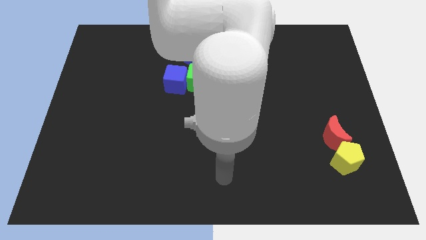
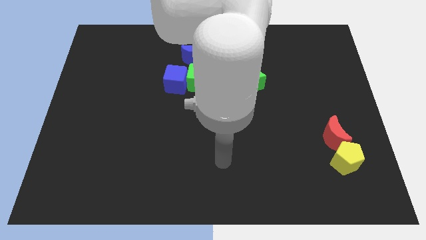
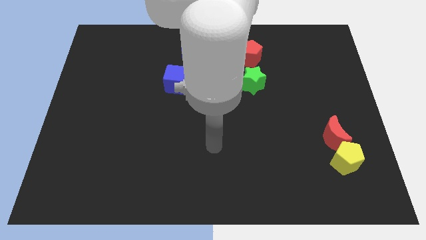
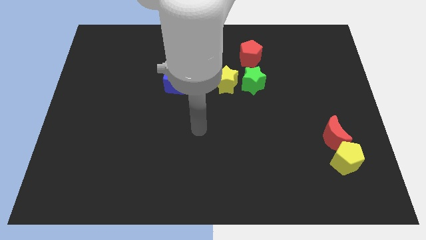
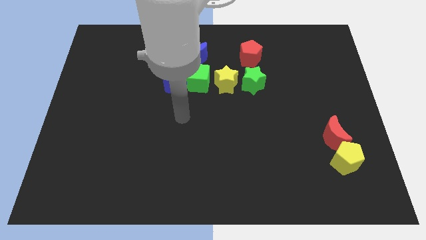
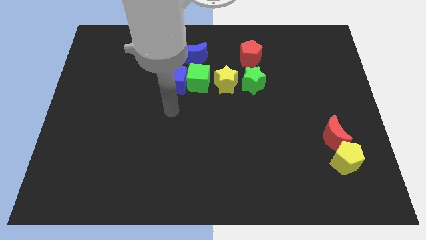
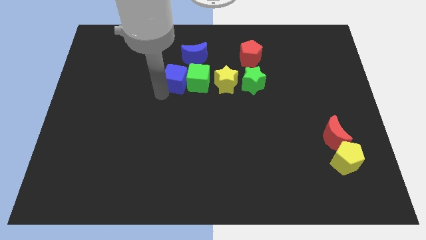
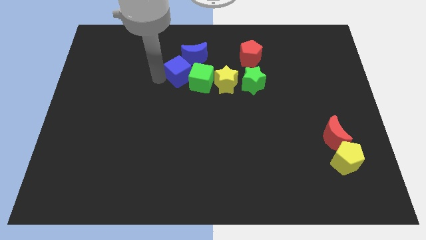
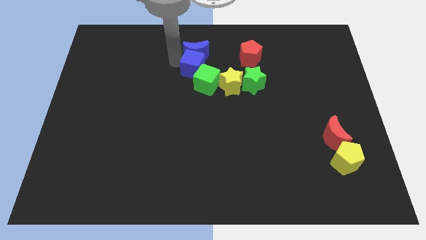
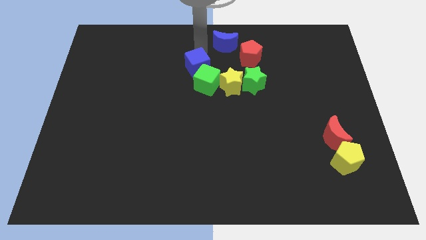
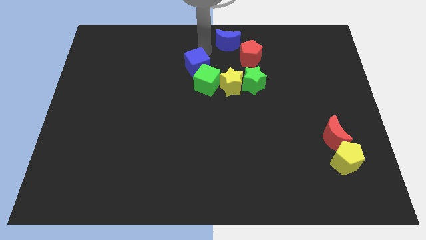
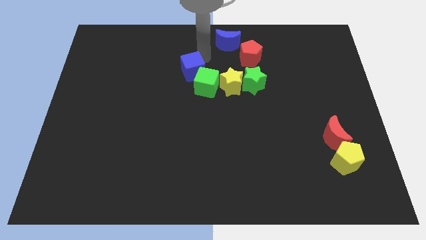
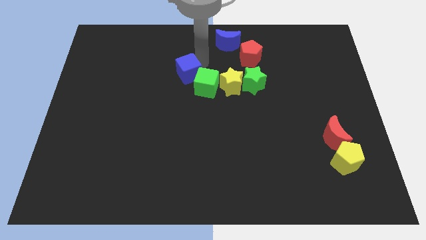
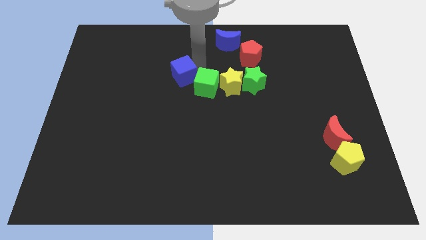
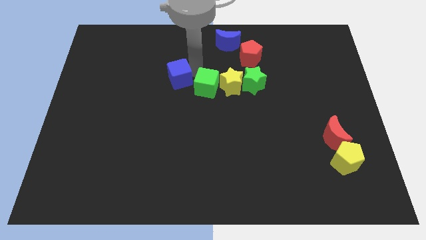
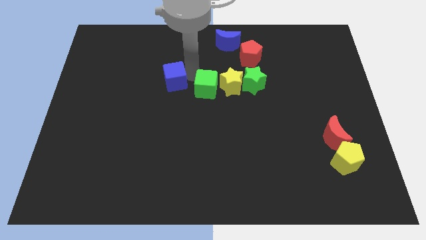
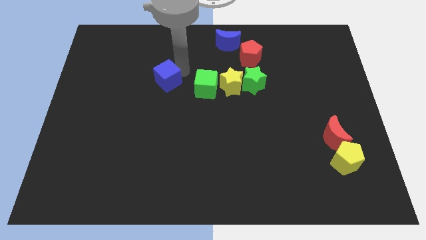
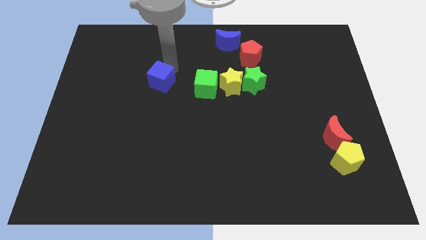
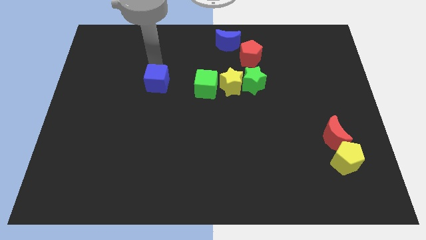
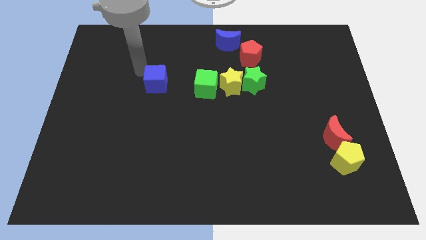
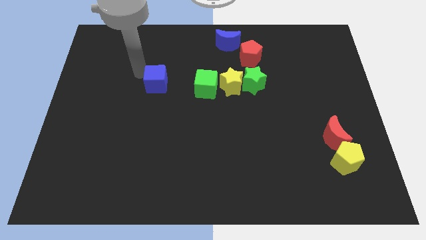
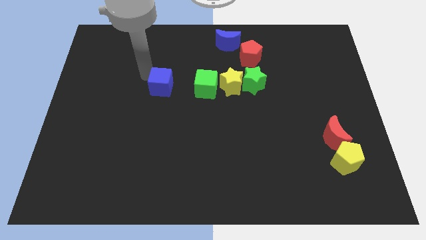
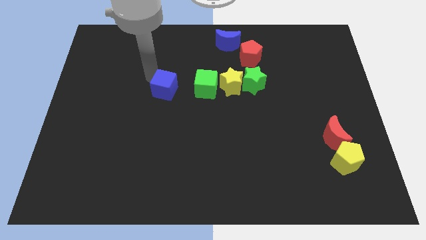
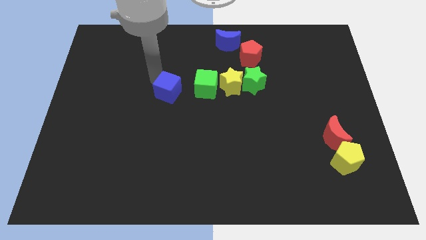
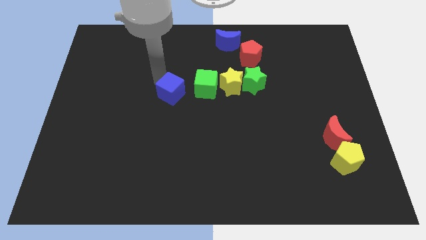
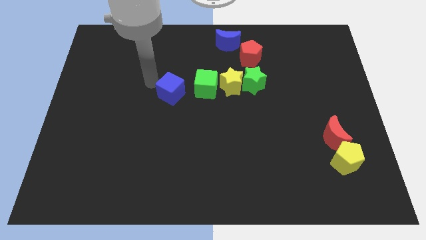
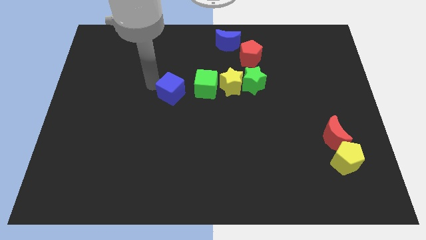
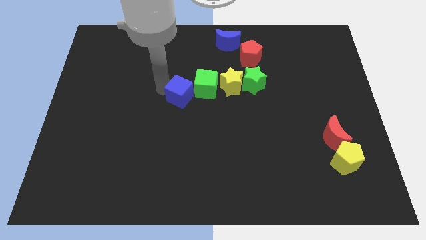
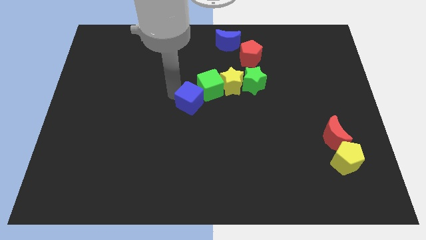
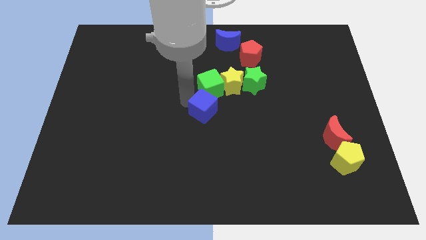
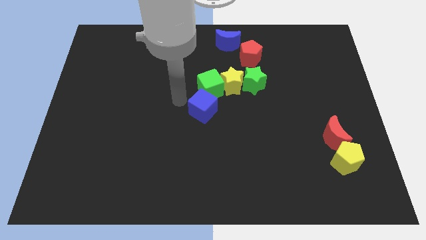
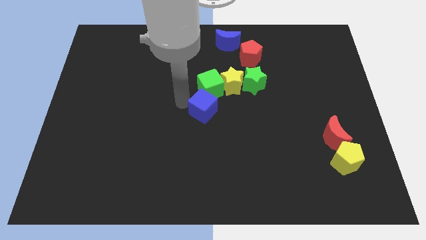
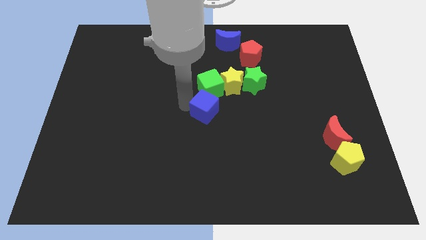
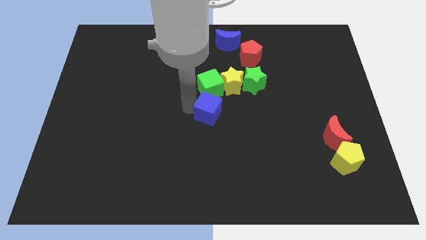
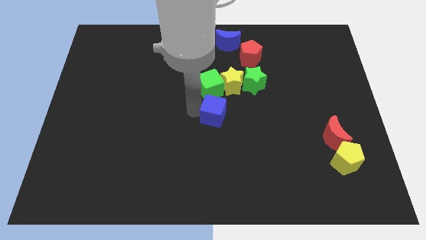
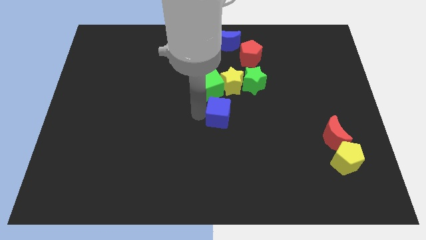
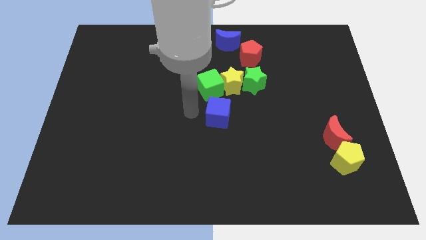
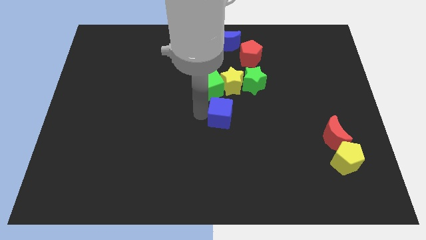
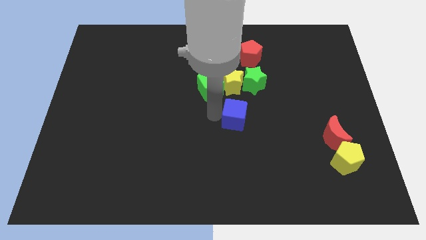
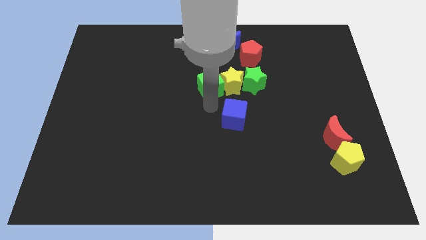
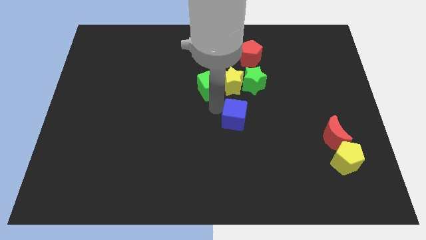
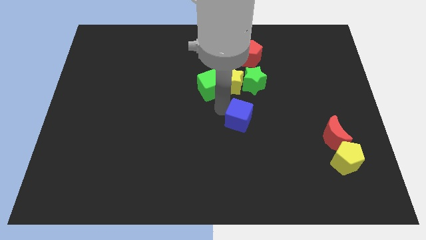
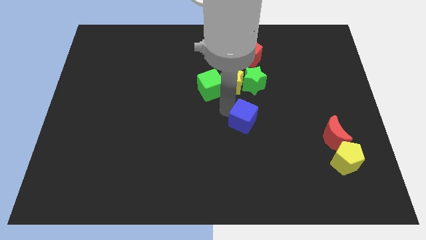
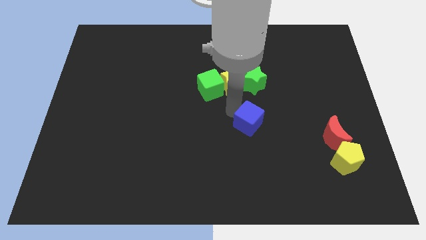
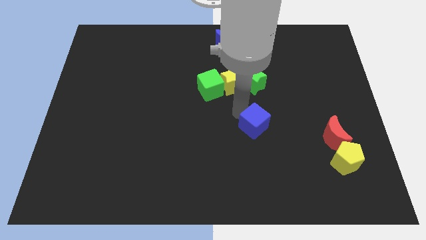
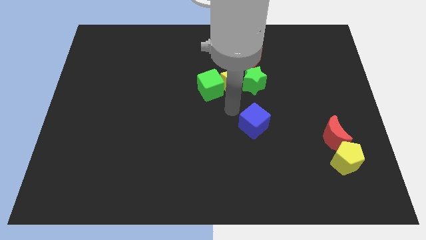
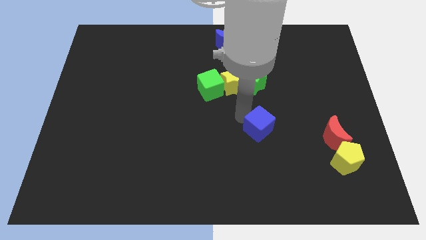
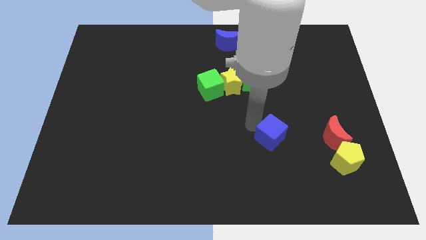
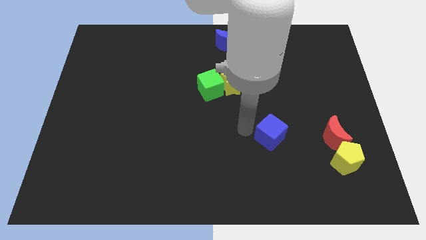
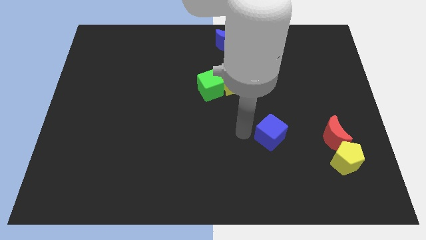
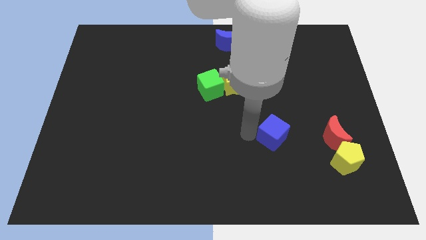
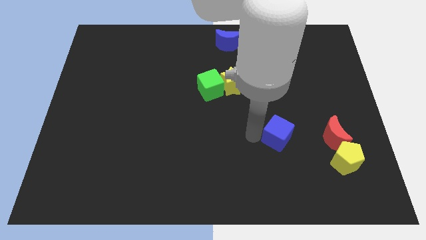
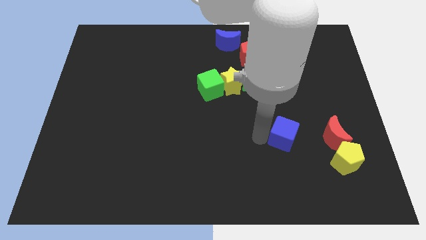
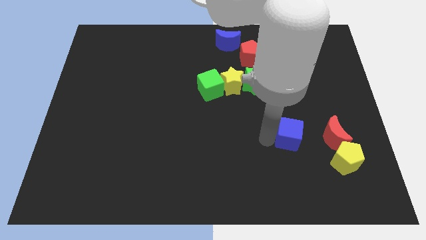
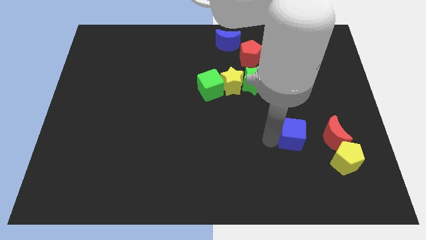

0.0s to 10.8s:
put the blue cube to the top left of the yellow pentagon

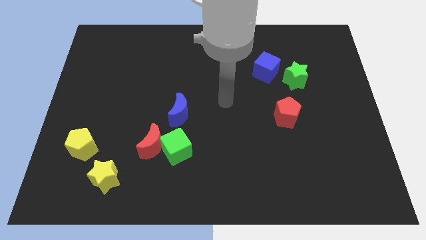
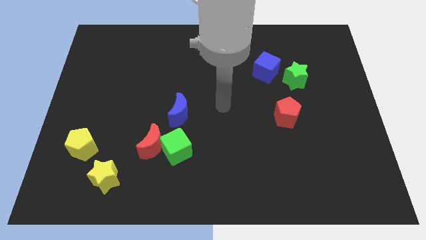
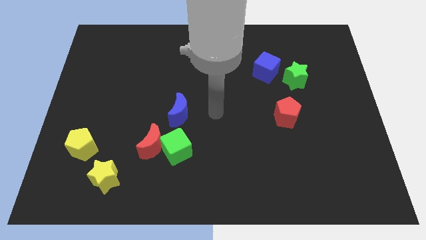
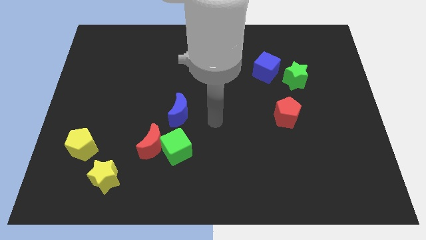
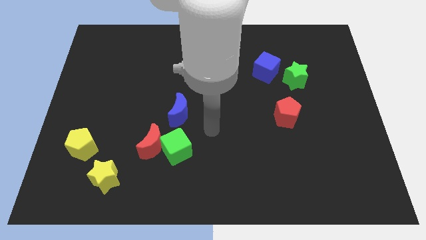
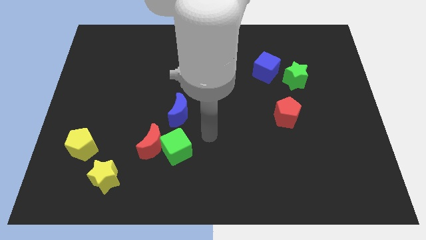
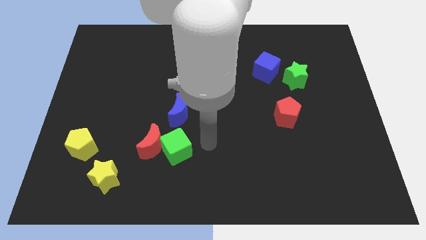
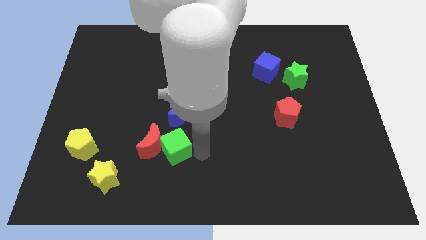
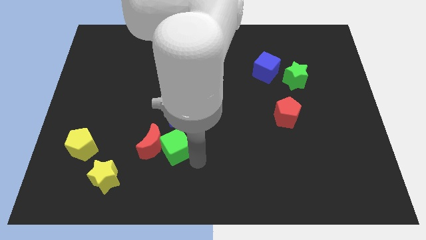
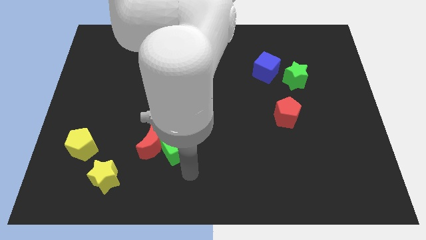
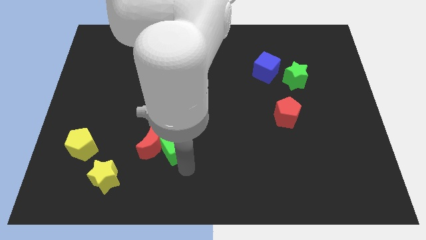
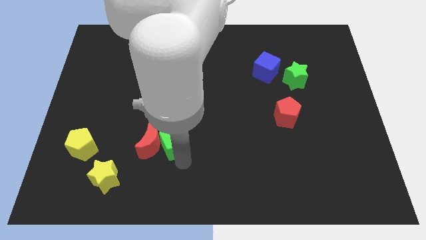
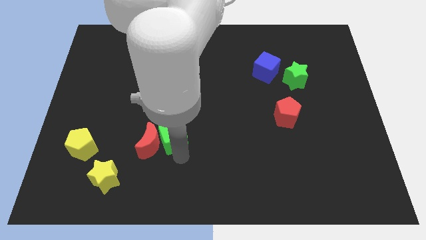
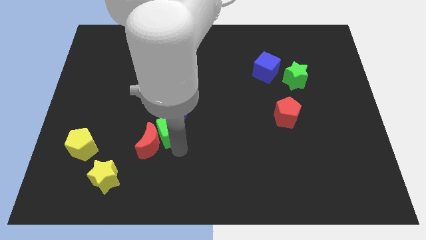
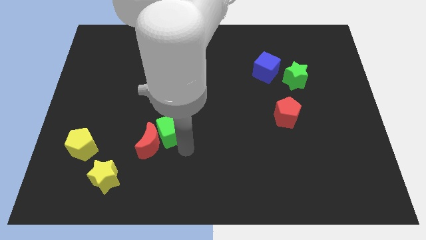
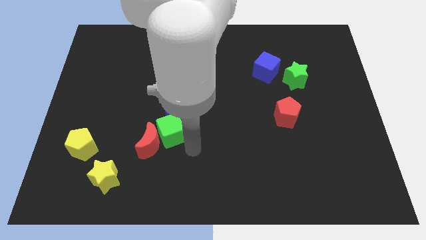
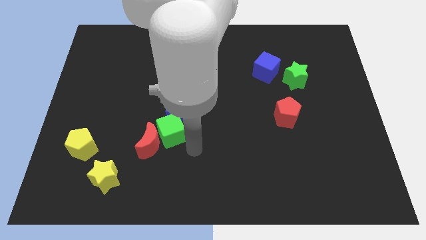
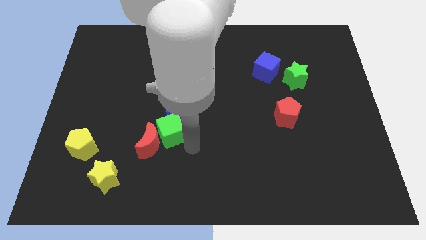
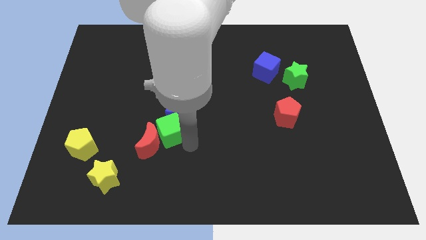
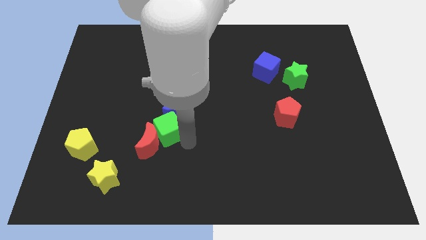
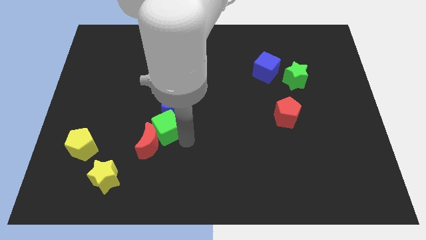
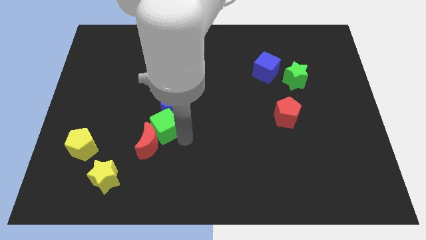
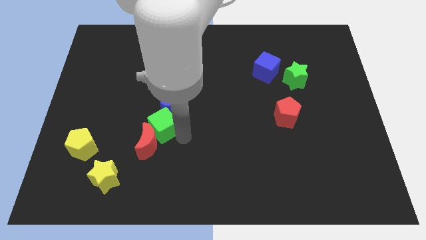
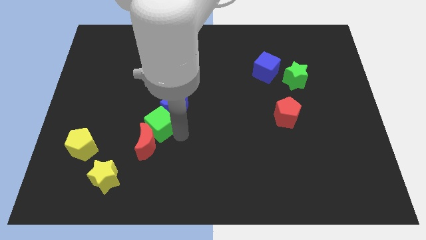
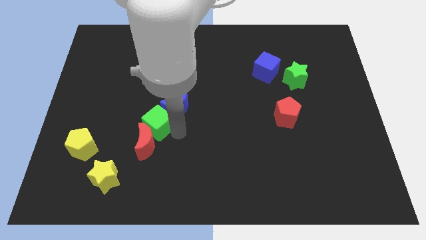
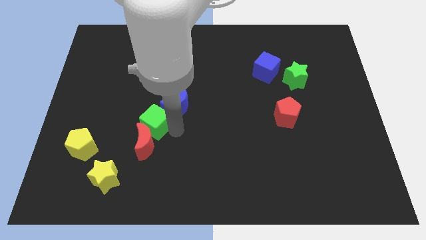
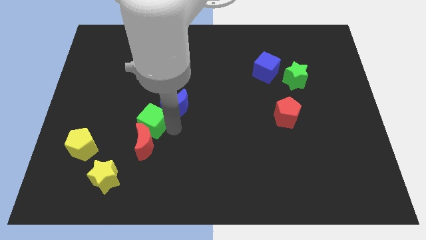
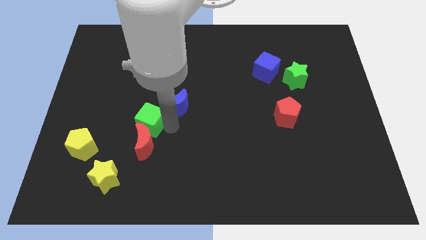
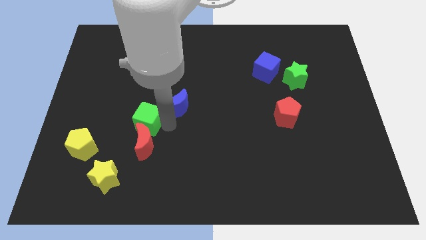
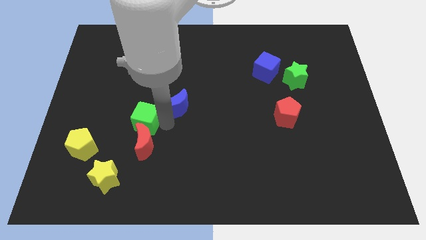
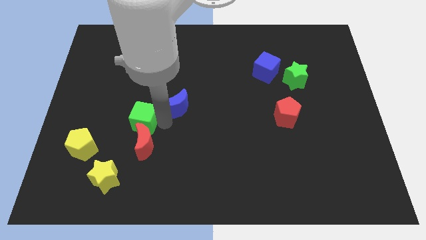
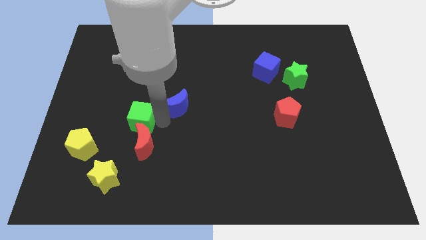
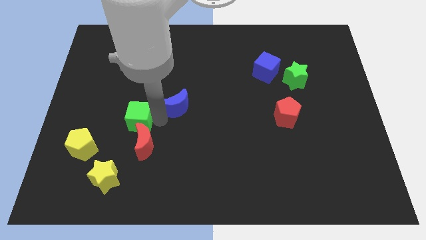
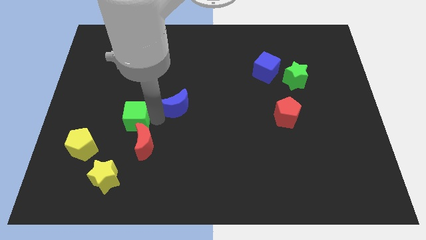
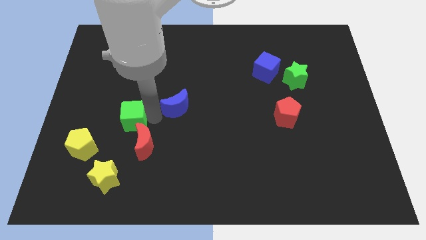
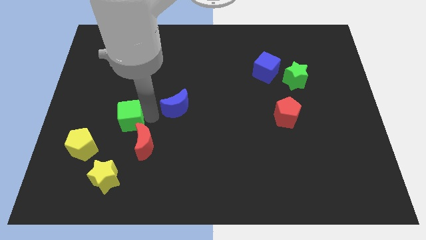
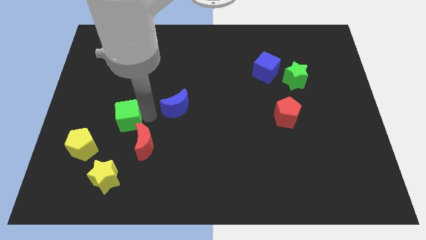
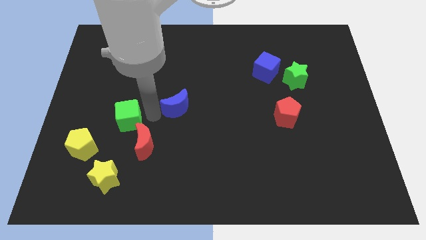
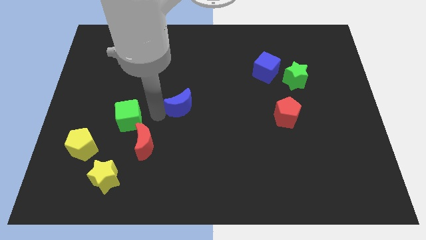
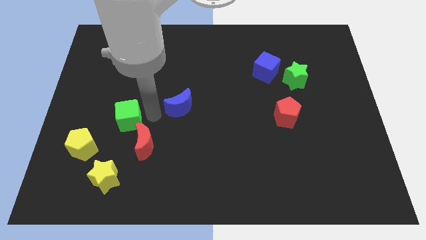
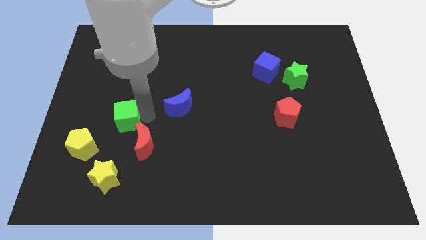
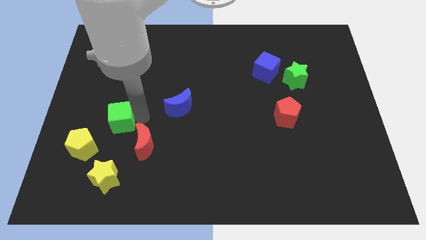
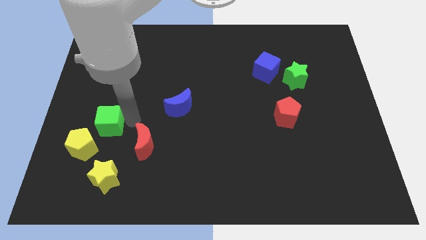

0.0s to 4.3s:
move the green cube above the yellow pentagon
